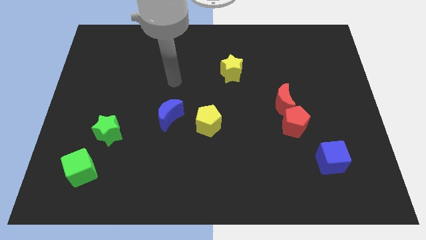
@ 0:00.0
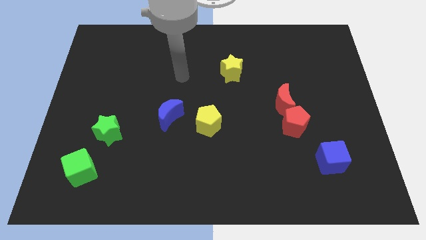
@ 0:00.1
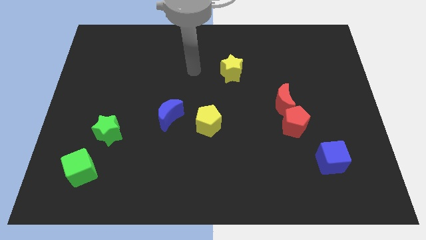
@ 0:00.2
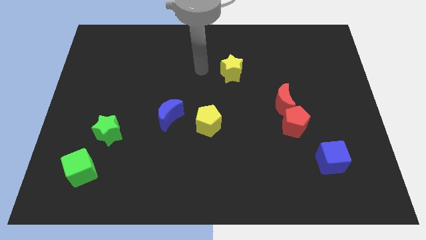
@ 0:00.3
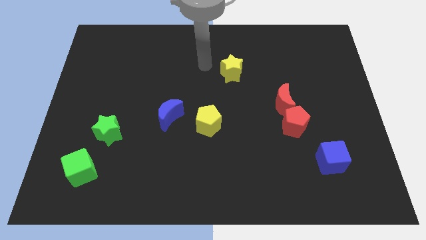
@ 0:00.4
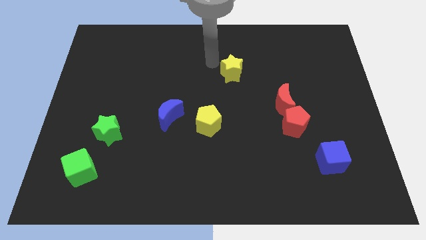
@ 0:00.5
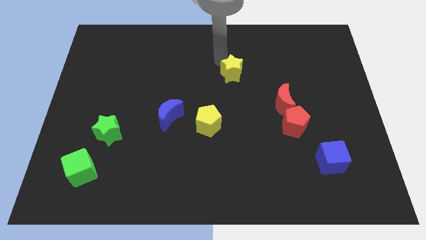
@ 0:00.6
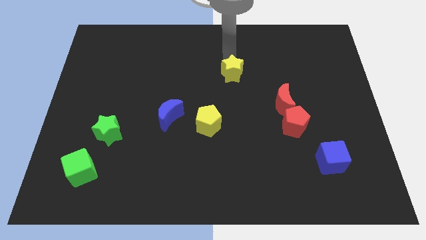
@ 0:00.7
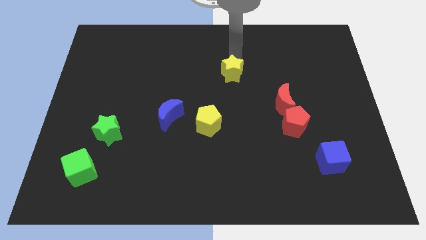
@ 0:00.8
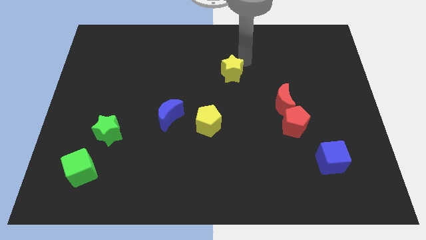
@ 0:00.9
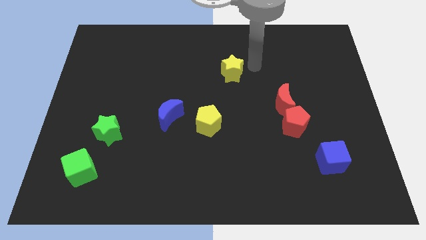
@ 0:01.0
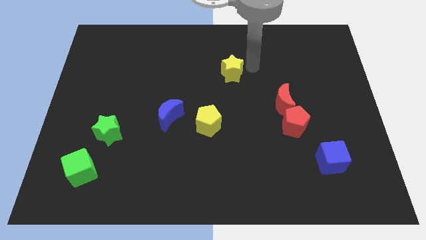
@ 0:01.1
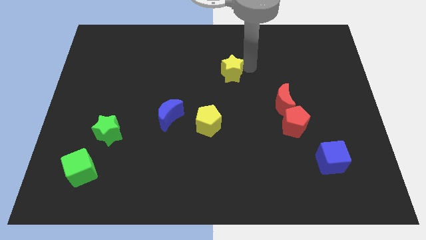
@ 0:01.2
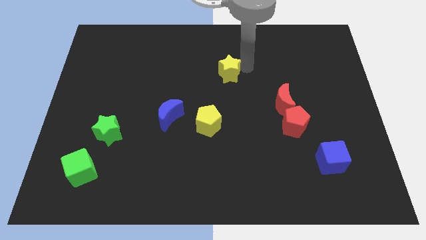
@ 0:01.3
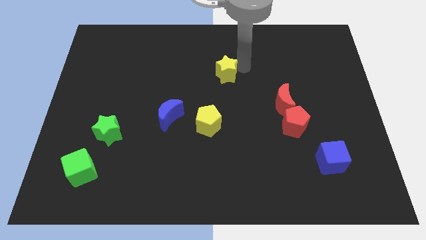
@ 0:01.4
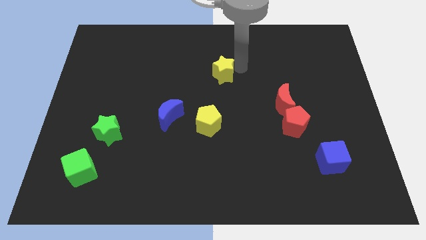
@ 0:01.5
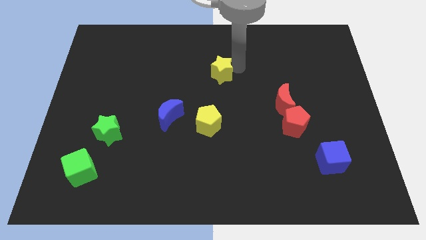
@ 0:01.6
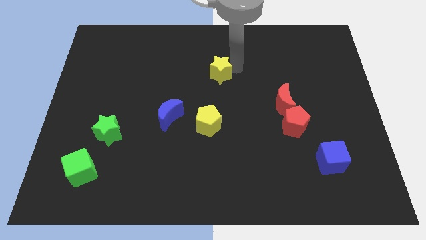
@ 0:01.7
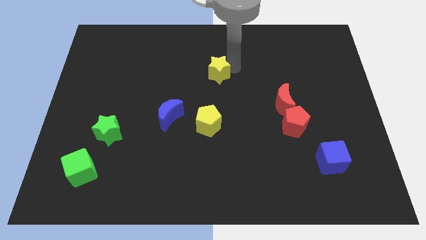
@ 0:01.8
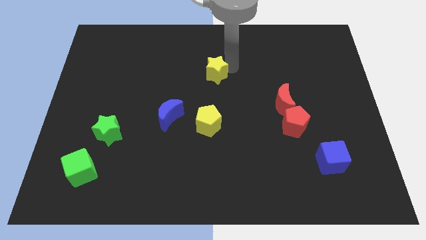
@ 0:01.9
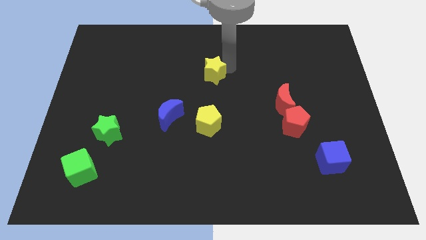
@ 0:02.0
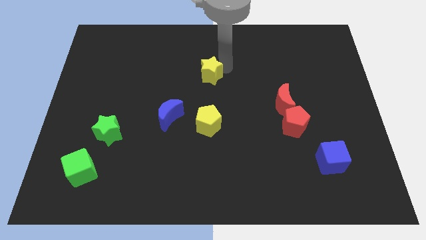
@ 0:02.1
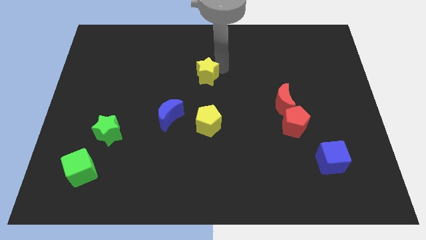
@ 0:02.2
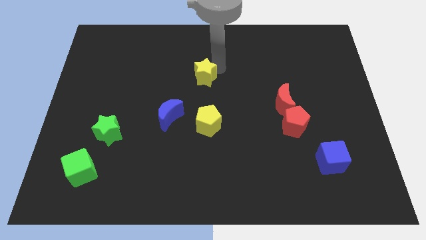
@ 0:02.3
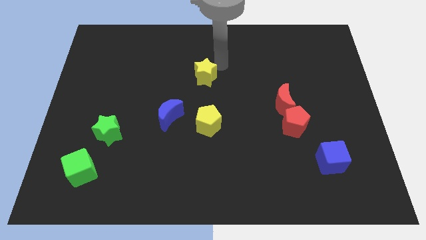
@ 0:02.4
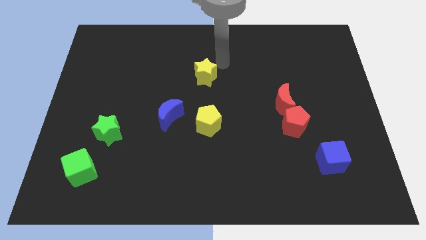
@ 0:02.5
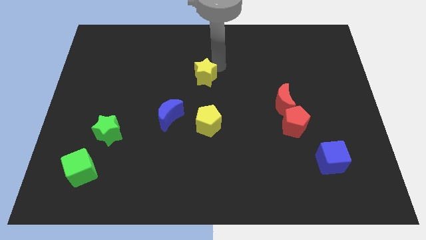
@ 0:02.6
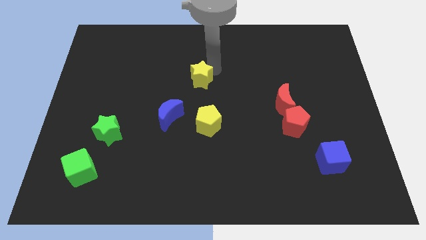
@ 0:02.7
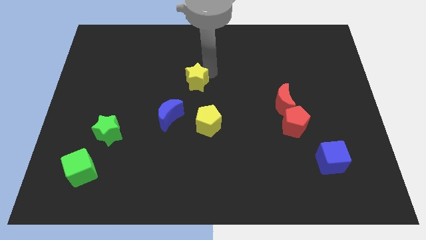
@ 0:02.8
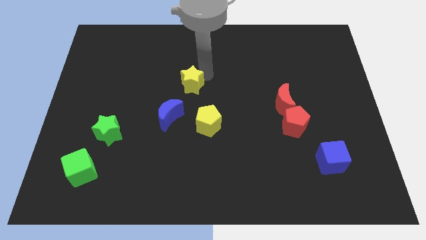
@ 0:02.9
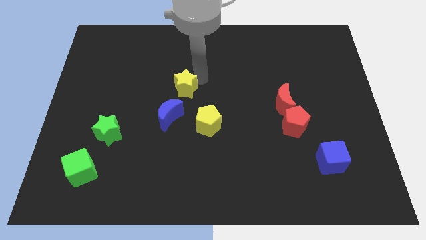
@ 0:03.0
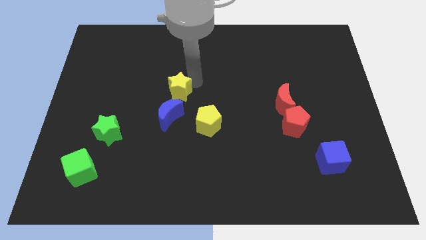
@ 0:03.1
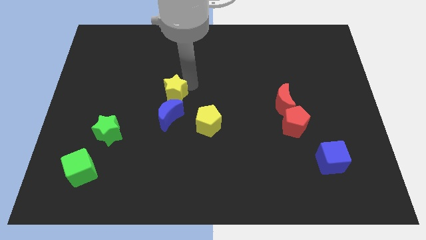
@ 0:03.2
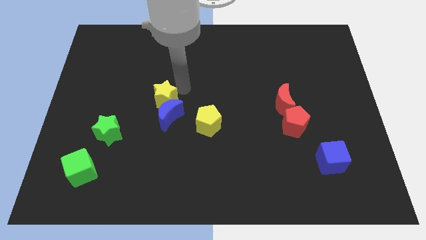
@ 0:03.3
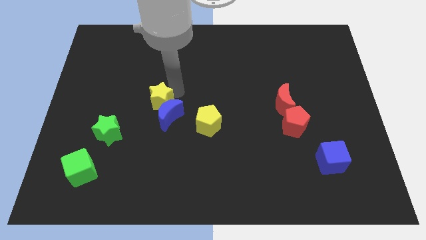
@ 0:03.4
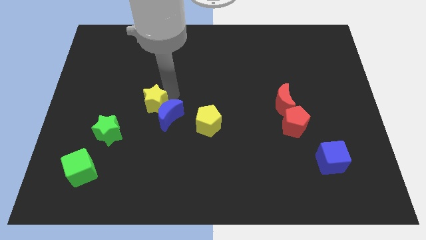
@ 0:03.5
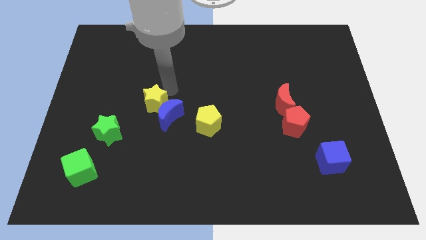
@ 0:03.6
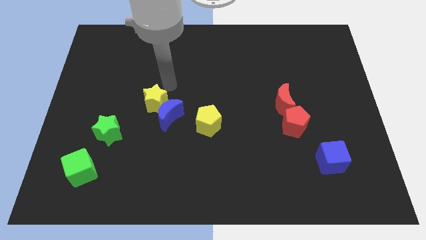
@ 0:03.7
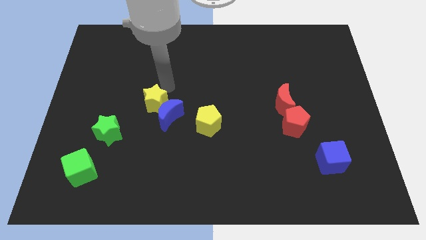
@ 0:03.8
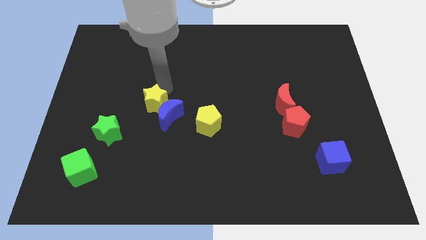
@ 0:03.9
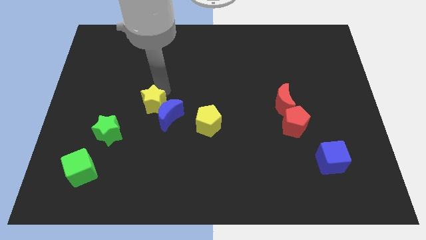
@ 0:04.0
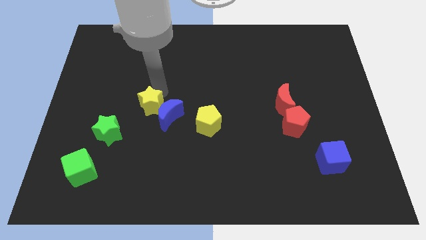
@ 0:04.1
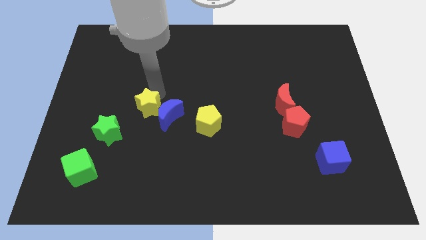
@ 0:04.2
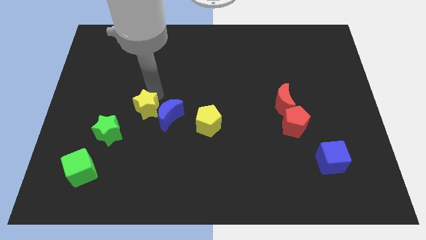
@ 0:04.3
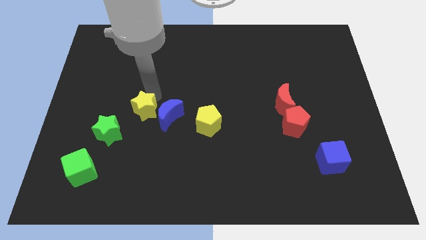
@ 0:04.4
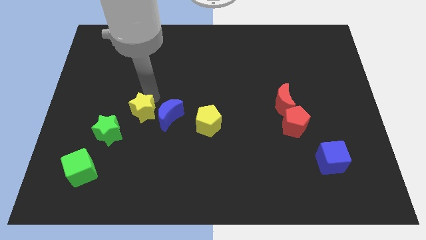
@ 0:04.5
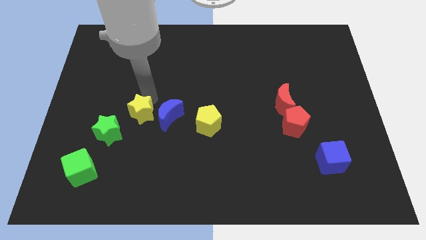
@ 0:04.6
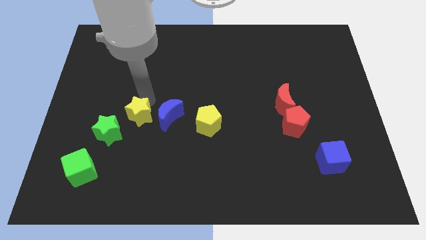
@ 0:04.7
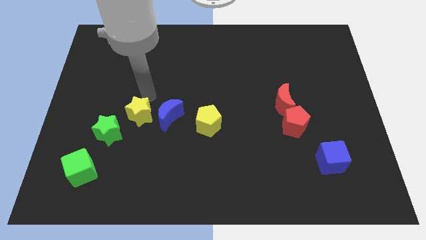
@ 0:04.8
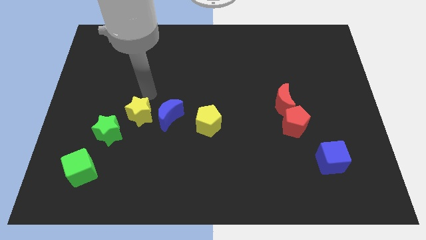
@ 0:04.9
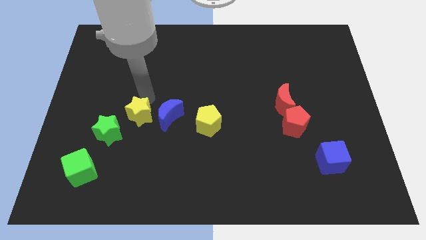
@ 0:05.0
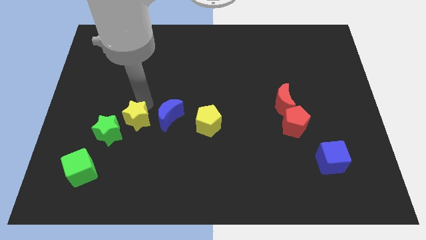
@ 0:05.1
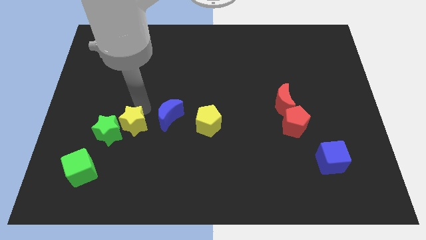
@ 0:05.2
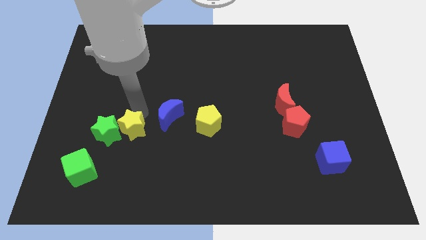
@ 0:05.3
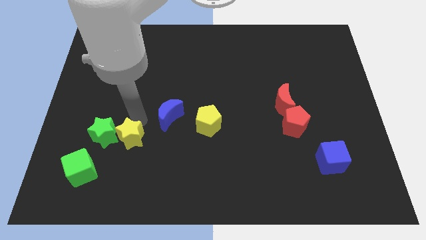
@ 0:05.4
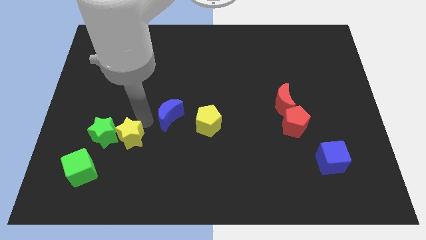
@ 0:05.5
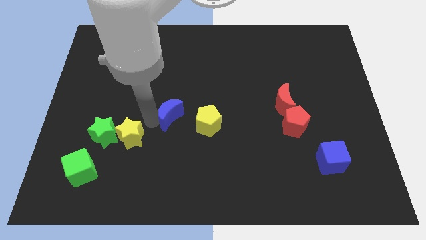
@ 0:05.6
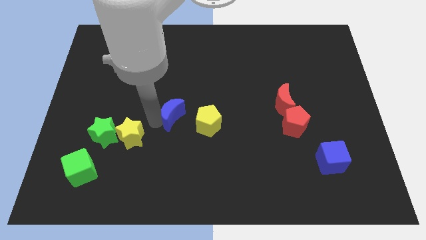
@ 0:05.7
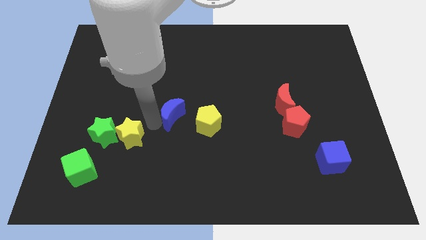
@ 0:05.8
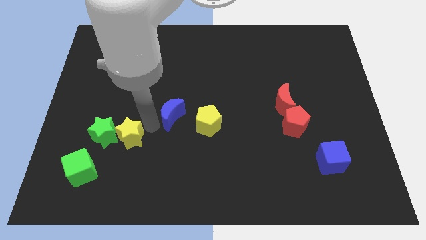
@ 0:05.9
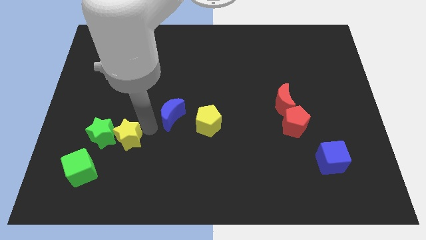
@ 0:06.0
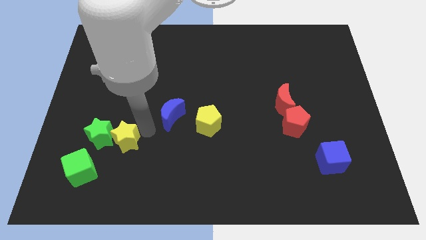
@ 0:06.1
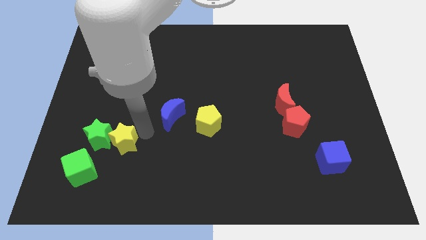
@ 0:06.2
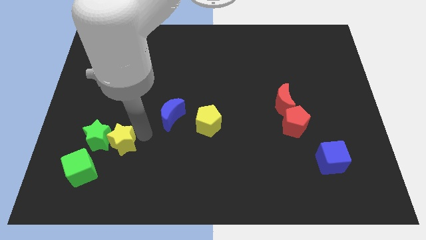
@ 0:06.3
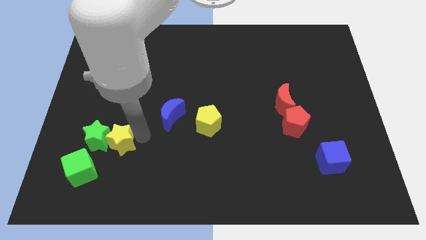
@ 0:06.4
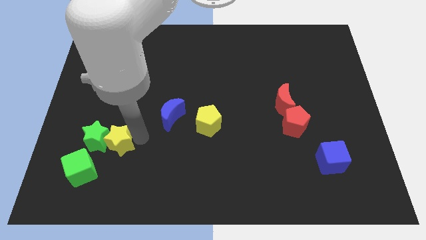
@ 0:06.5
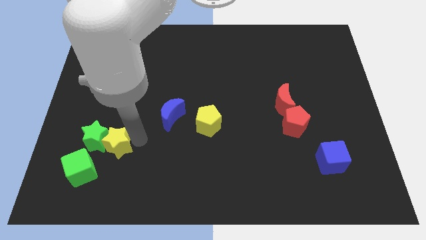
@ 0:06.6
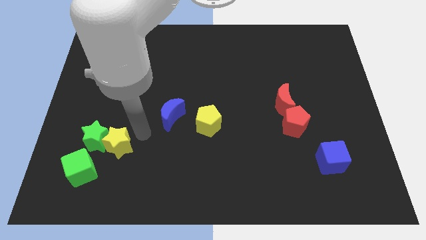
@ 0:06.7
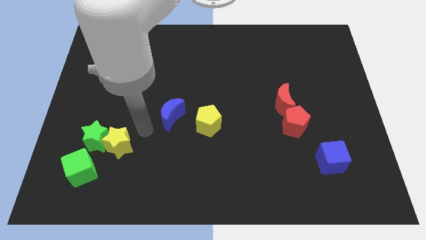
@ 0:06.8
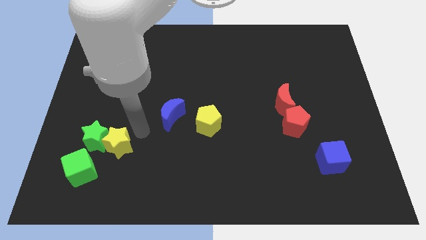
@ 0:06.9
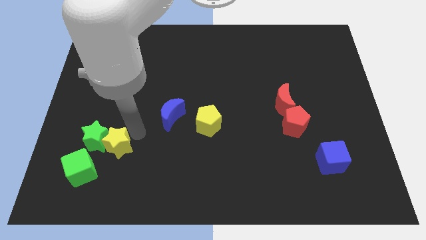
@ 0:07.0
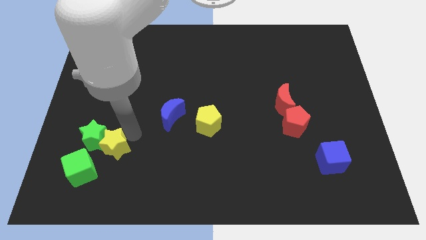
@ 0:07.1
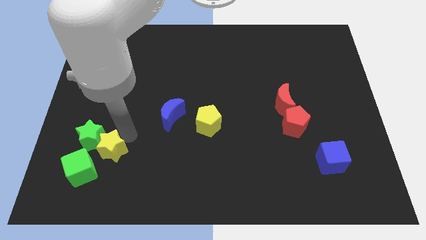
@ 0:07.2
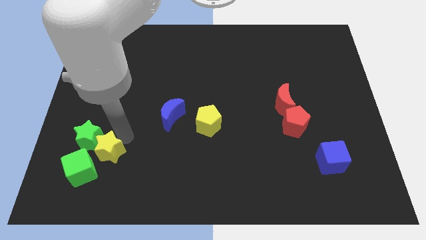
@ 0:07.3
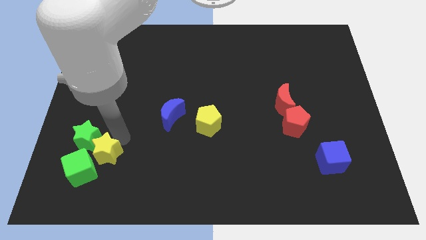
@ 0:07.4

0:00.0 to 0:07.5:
slide the yellow star towards the green cube
